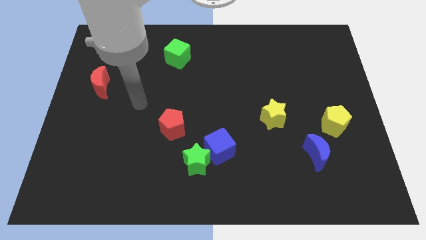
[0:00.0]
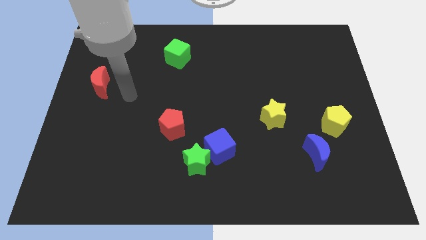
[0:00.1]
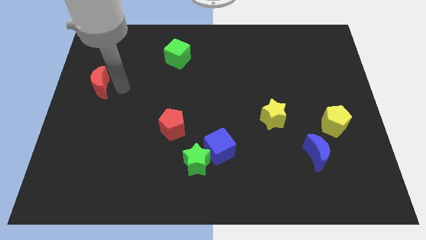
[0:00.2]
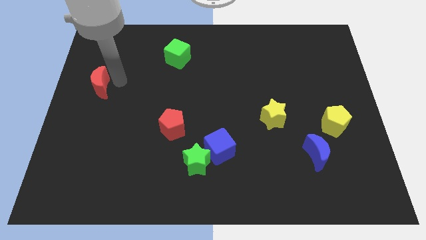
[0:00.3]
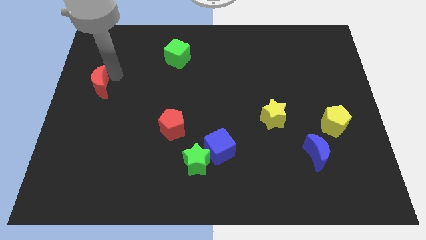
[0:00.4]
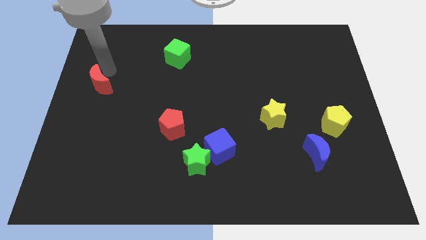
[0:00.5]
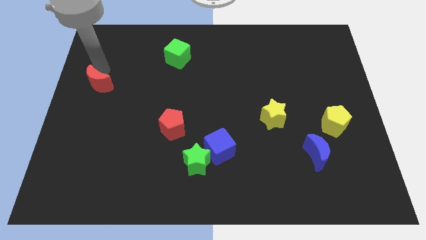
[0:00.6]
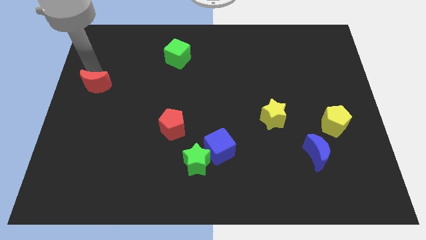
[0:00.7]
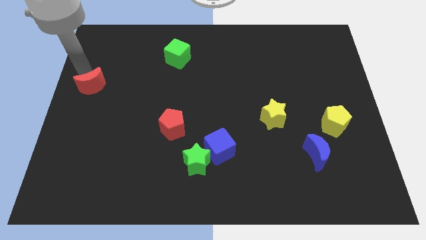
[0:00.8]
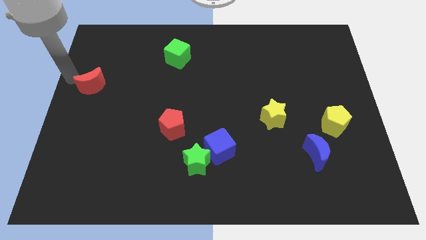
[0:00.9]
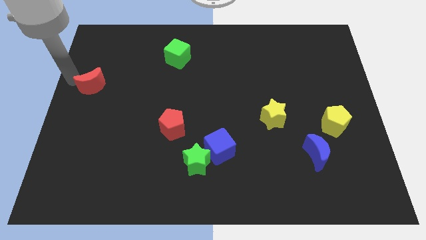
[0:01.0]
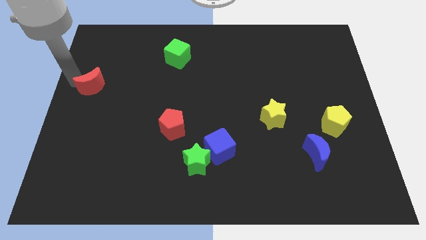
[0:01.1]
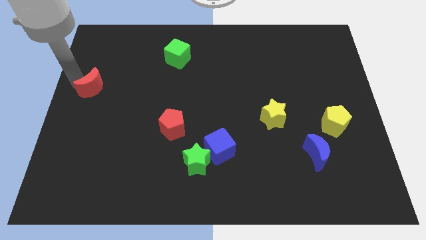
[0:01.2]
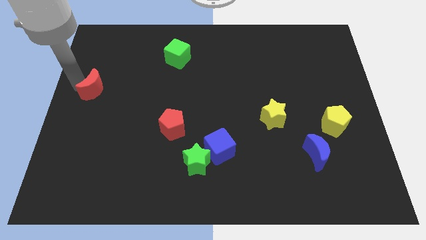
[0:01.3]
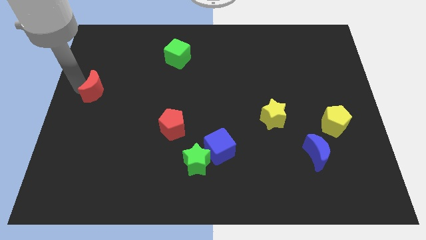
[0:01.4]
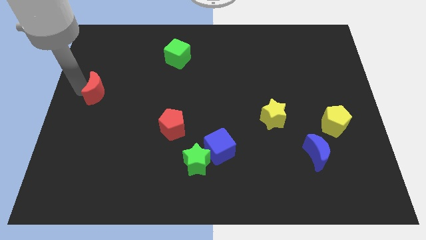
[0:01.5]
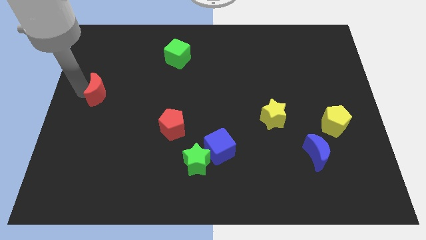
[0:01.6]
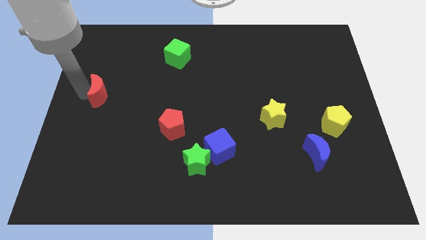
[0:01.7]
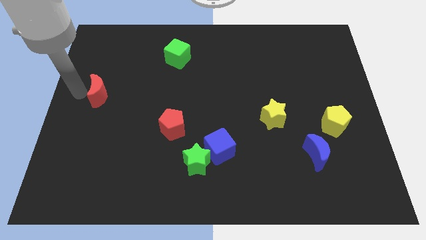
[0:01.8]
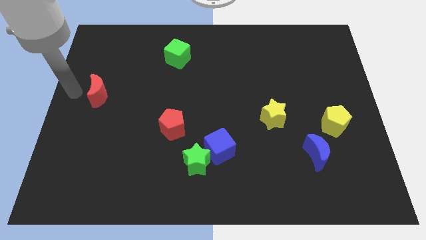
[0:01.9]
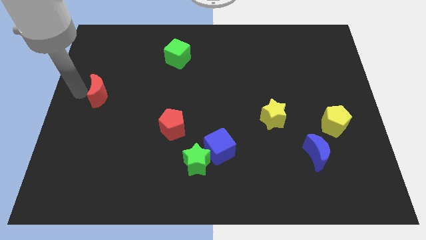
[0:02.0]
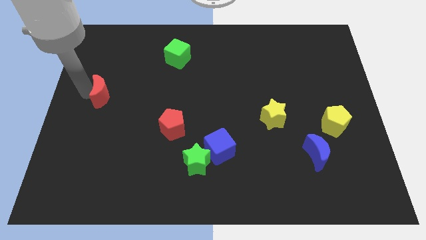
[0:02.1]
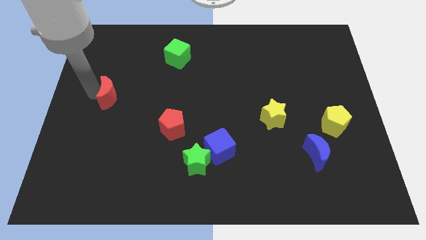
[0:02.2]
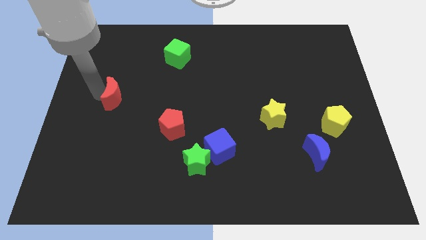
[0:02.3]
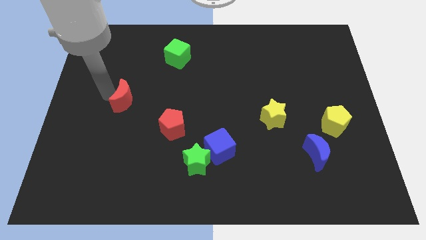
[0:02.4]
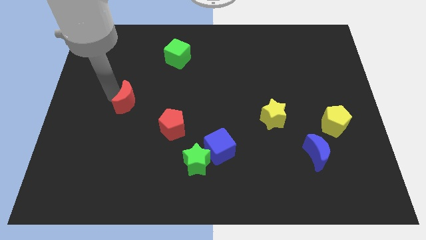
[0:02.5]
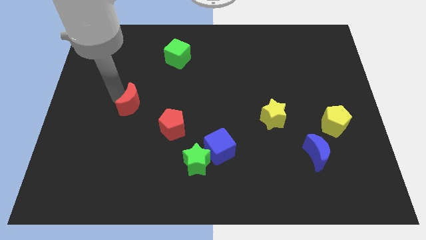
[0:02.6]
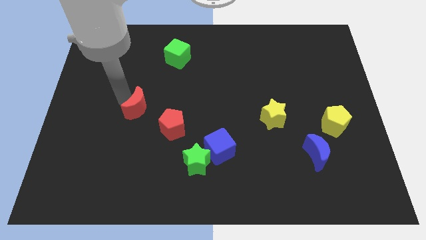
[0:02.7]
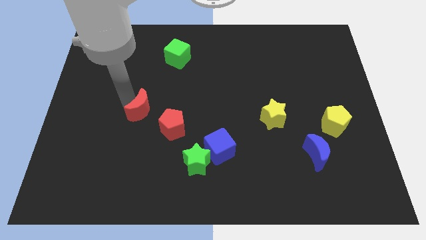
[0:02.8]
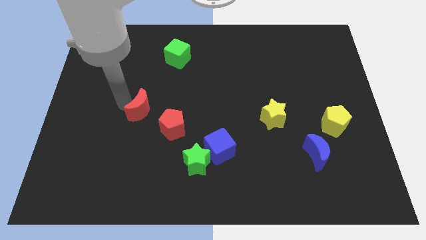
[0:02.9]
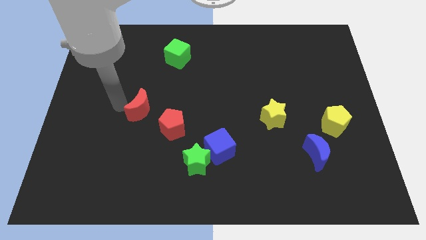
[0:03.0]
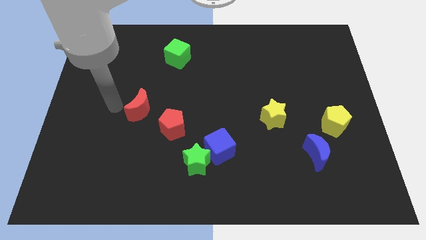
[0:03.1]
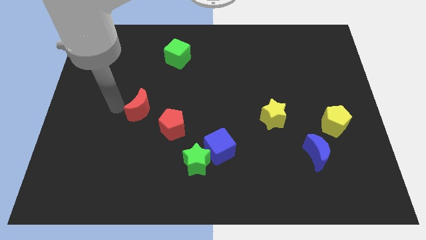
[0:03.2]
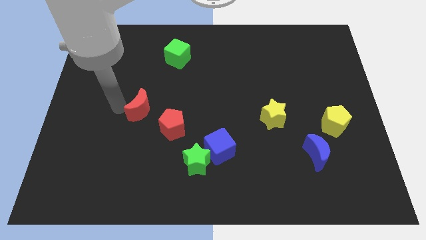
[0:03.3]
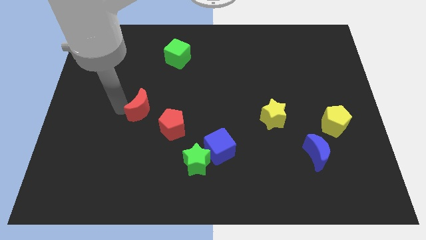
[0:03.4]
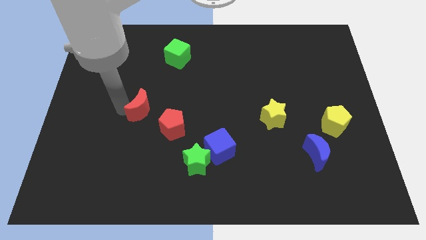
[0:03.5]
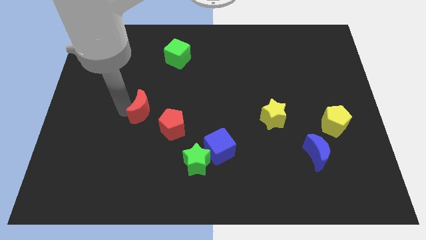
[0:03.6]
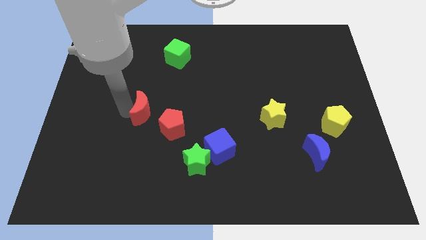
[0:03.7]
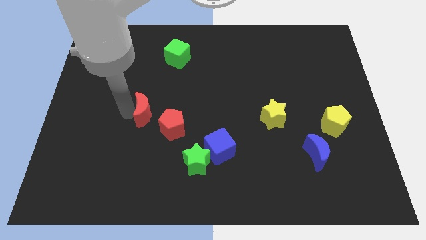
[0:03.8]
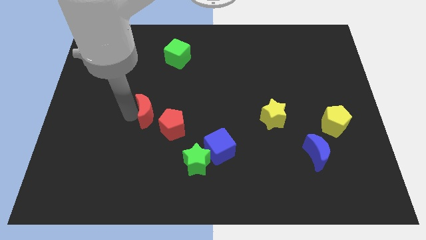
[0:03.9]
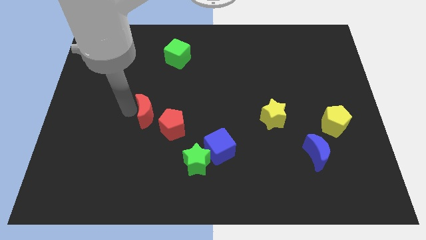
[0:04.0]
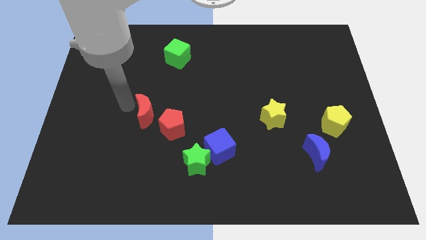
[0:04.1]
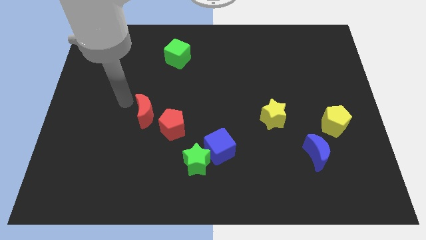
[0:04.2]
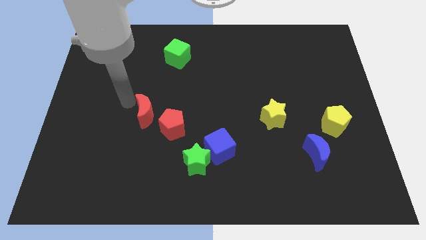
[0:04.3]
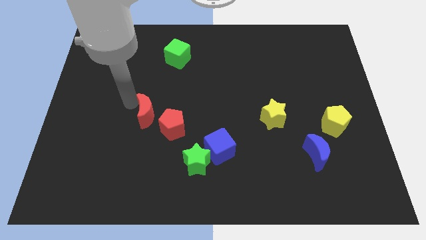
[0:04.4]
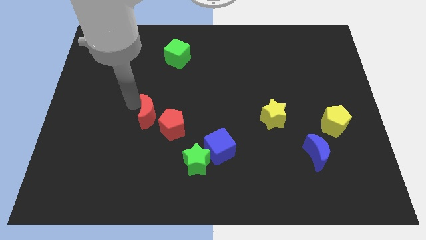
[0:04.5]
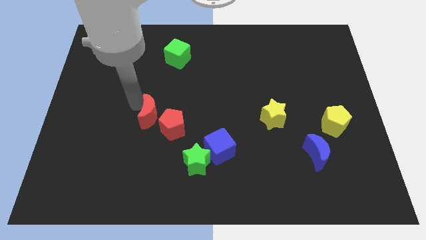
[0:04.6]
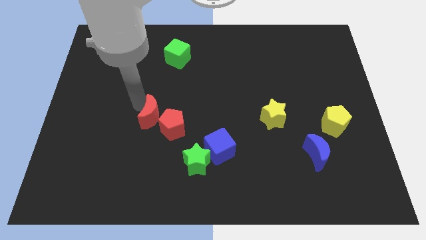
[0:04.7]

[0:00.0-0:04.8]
slide the red moon next to the red pentagon

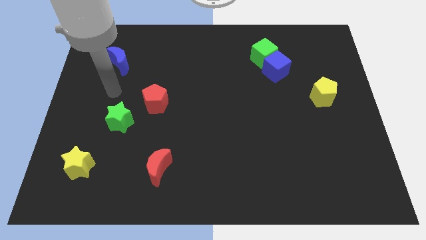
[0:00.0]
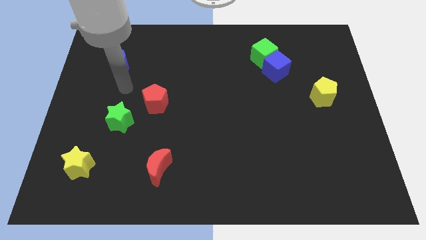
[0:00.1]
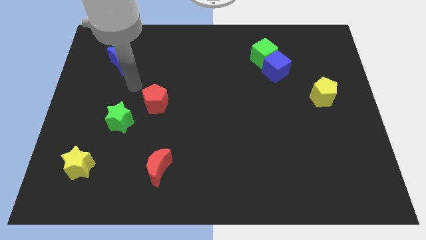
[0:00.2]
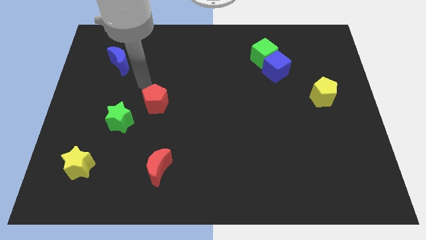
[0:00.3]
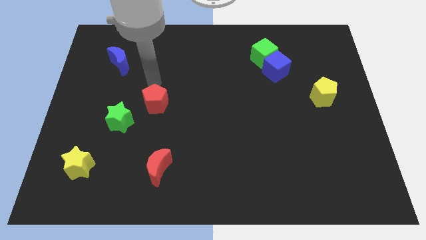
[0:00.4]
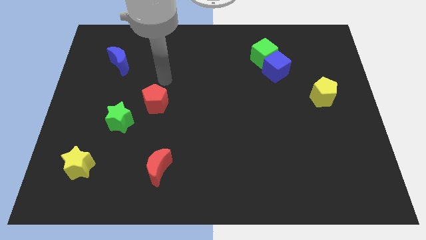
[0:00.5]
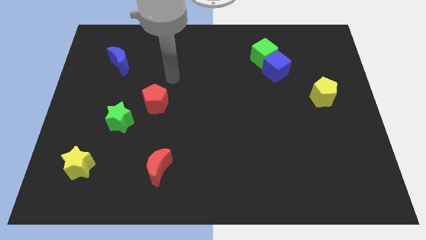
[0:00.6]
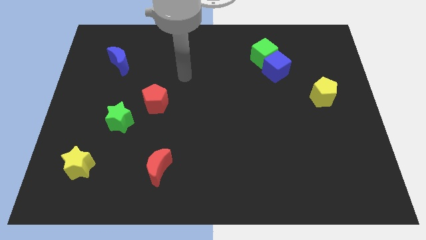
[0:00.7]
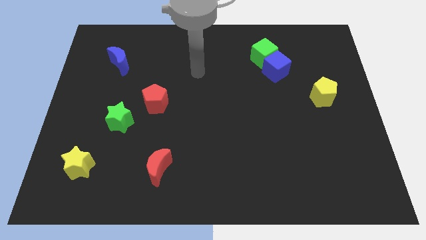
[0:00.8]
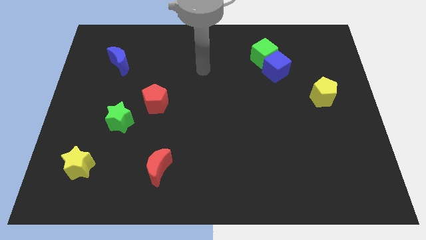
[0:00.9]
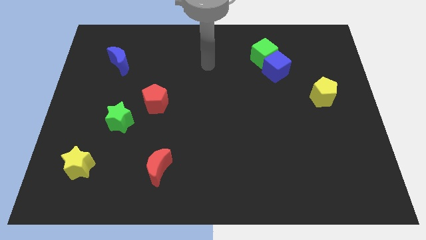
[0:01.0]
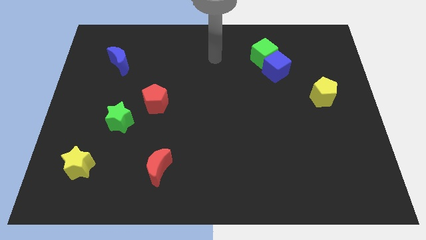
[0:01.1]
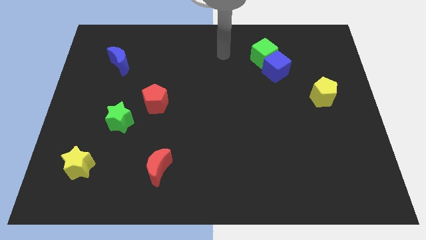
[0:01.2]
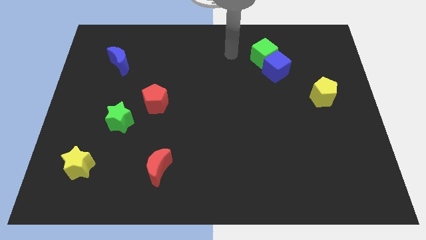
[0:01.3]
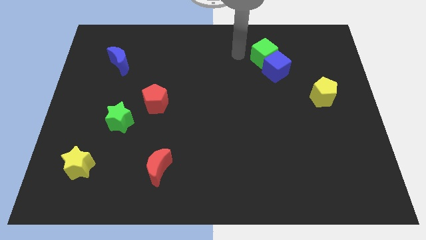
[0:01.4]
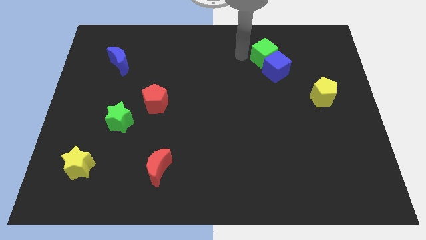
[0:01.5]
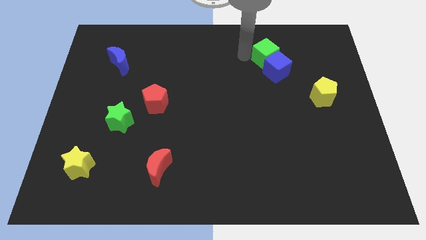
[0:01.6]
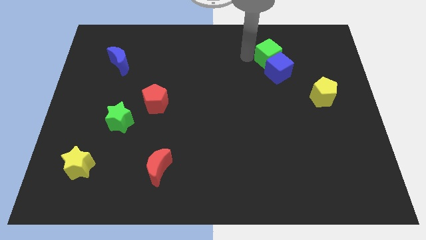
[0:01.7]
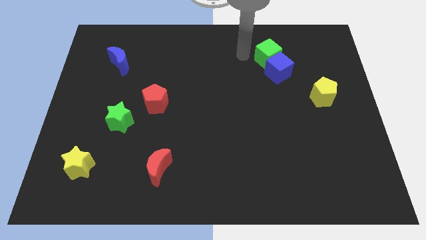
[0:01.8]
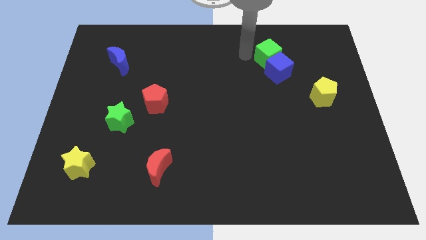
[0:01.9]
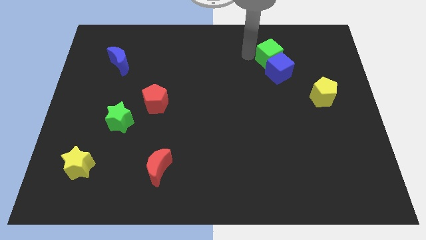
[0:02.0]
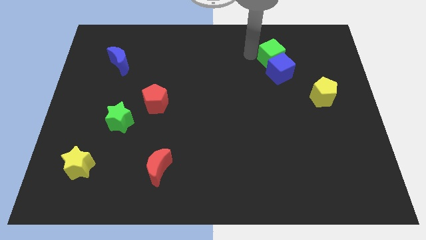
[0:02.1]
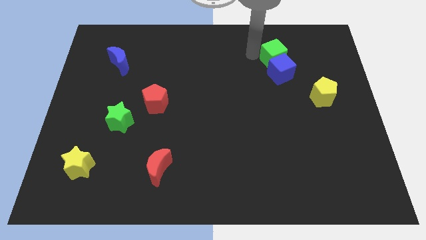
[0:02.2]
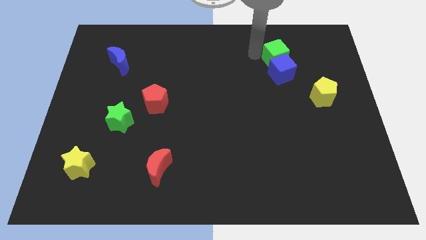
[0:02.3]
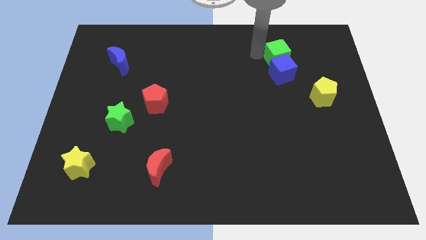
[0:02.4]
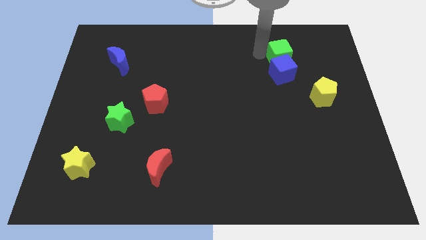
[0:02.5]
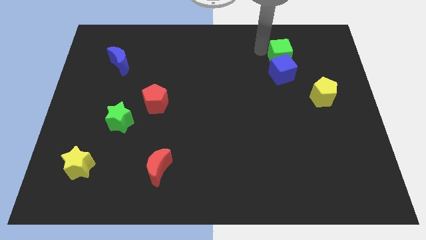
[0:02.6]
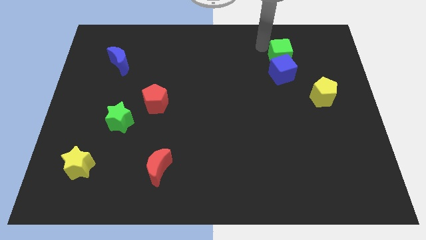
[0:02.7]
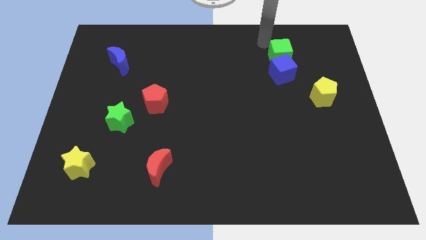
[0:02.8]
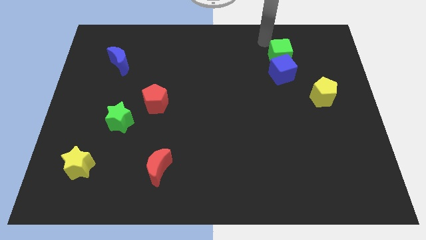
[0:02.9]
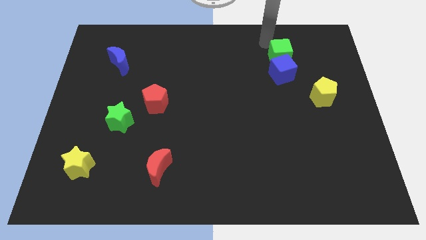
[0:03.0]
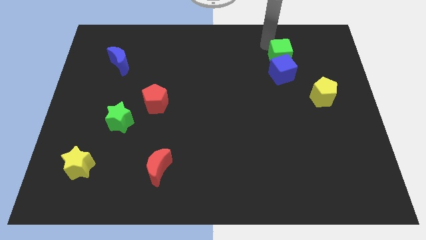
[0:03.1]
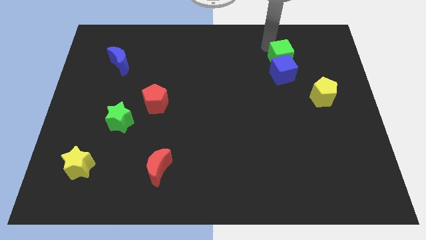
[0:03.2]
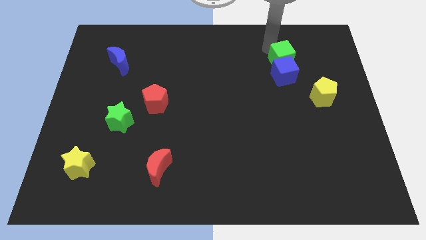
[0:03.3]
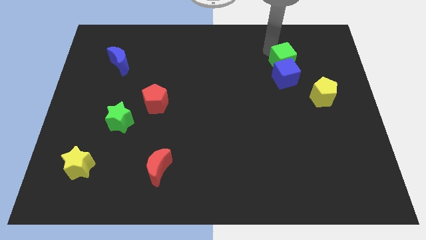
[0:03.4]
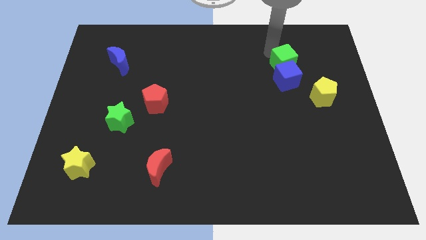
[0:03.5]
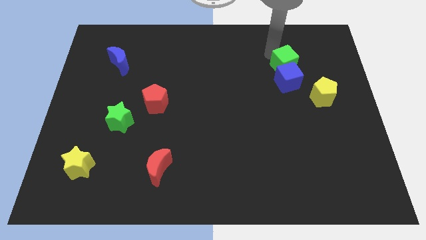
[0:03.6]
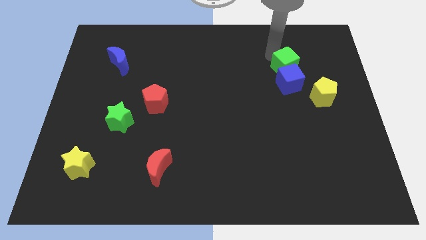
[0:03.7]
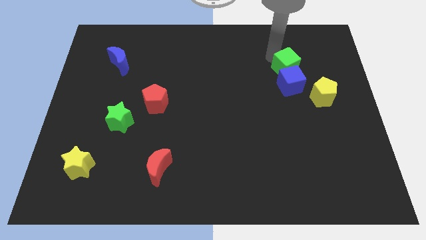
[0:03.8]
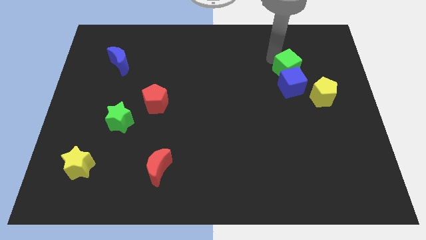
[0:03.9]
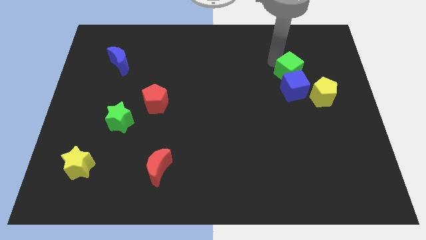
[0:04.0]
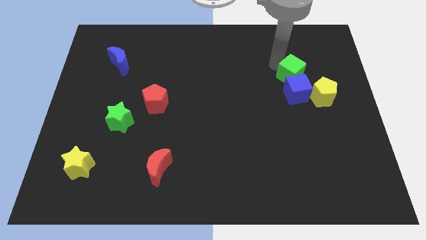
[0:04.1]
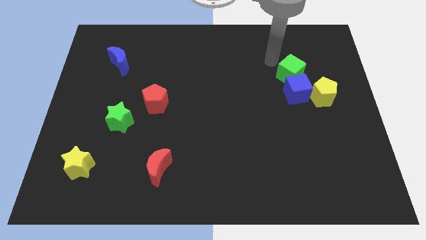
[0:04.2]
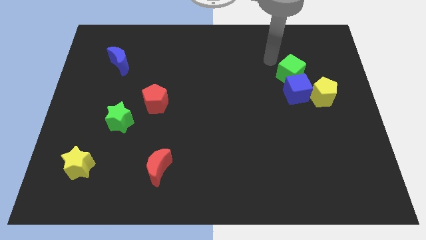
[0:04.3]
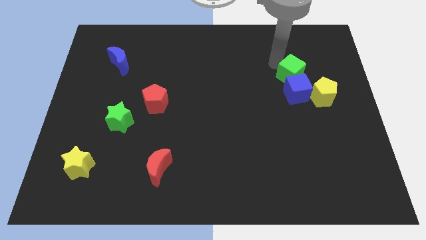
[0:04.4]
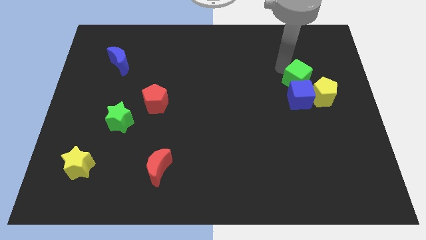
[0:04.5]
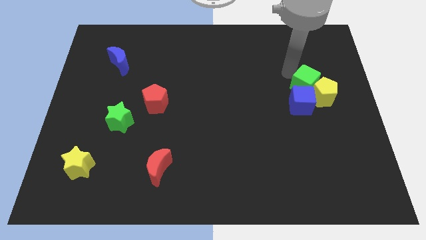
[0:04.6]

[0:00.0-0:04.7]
slide the green cube towards the yellow pentagon
